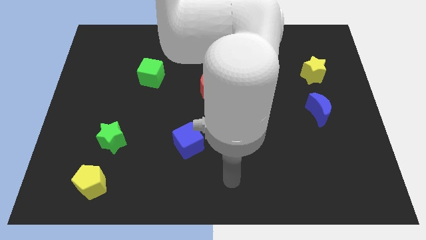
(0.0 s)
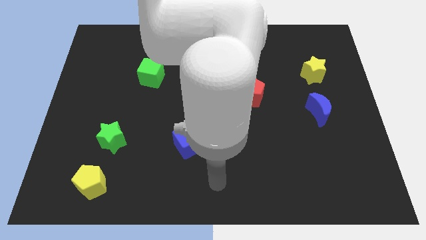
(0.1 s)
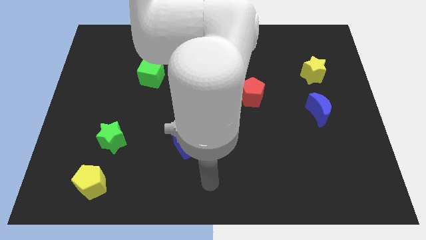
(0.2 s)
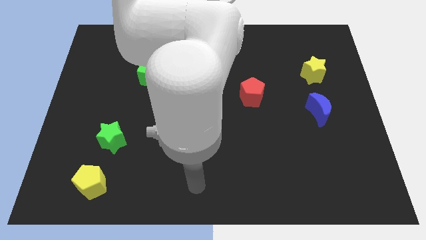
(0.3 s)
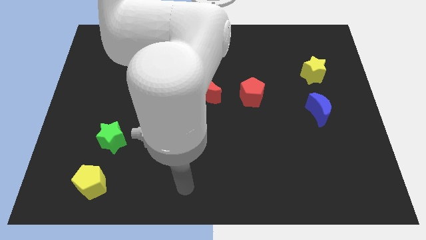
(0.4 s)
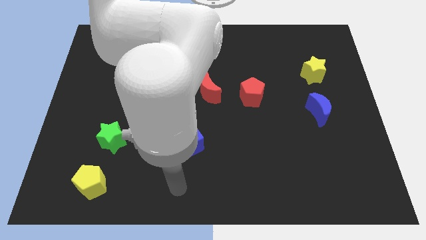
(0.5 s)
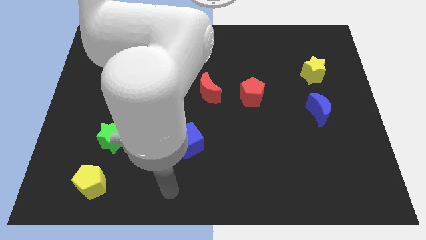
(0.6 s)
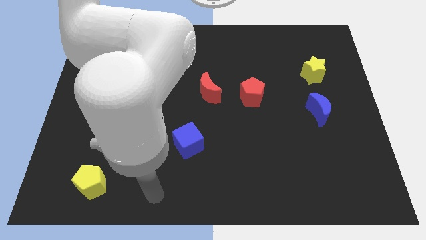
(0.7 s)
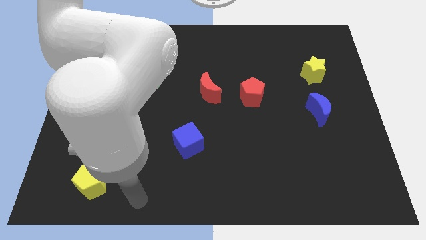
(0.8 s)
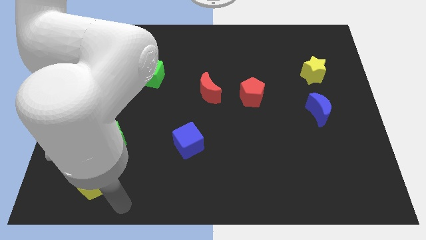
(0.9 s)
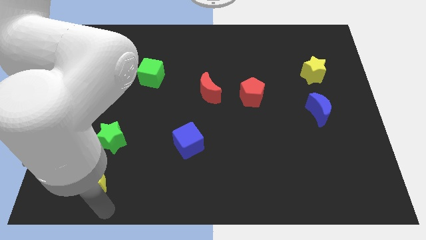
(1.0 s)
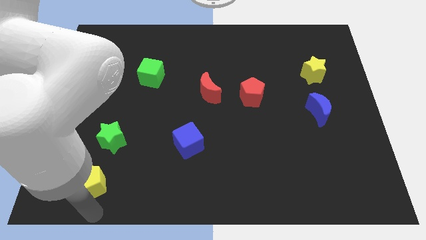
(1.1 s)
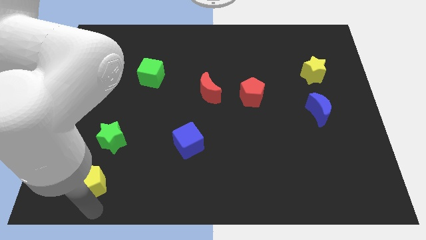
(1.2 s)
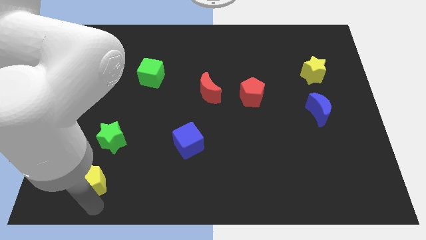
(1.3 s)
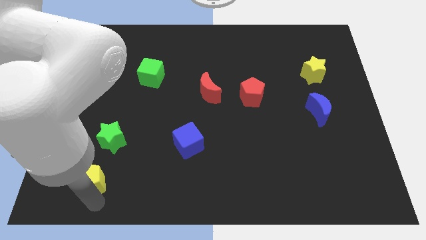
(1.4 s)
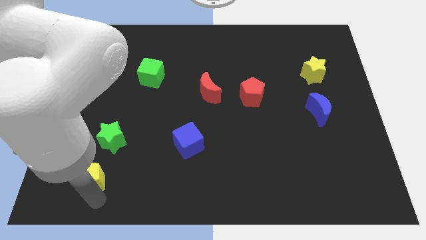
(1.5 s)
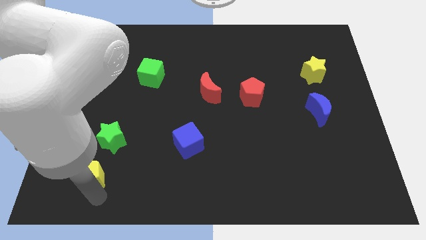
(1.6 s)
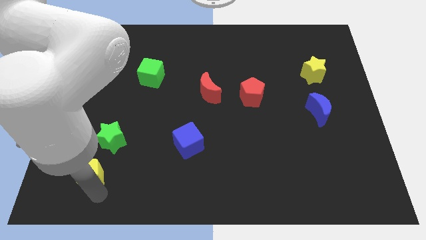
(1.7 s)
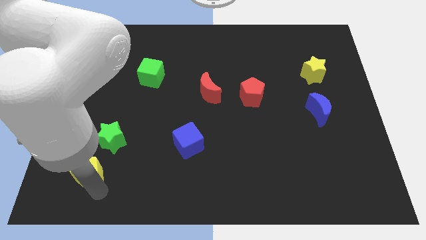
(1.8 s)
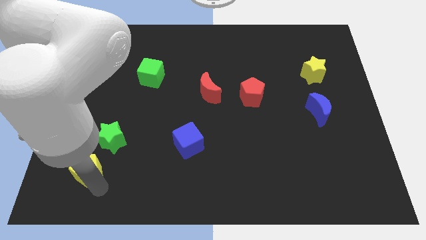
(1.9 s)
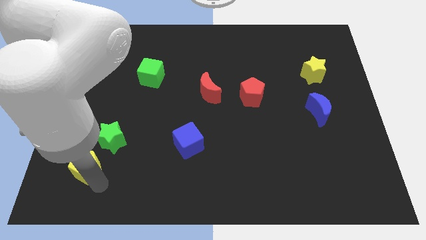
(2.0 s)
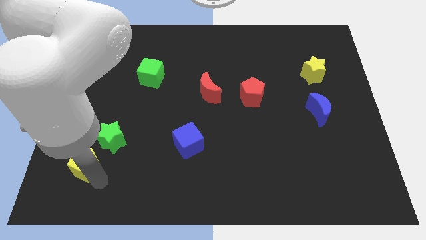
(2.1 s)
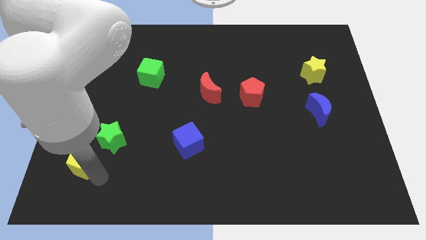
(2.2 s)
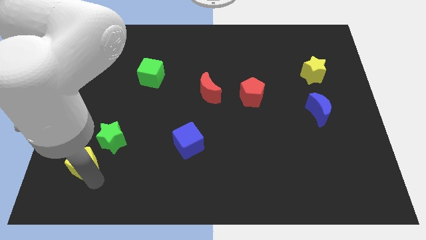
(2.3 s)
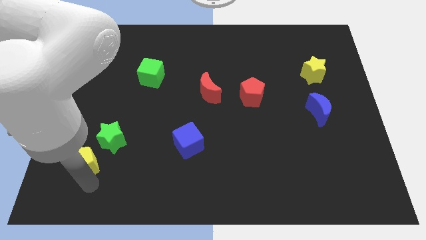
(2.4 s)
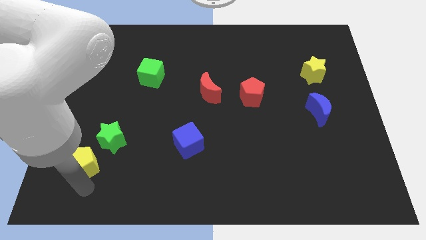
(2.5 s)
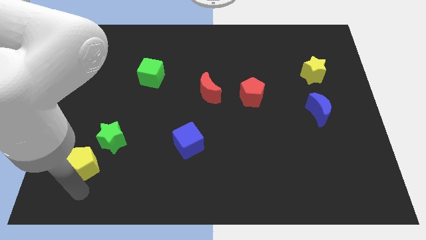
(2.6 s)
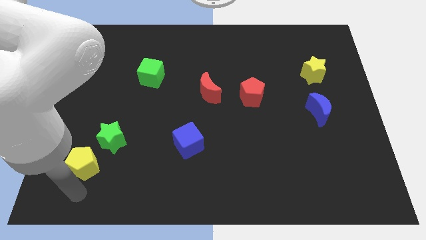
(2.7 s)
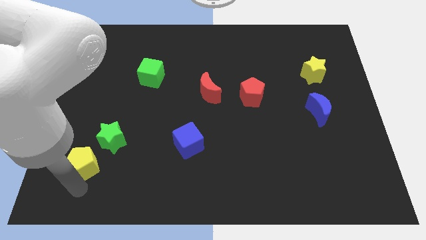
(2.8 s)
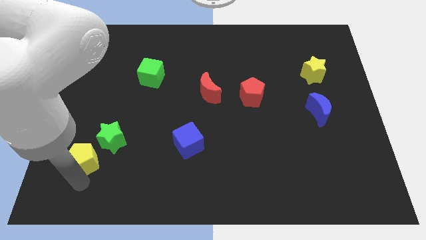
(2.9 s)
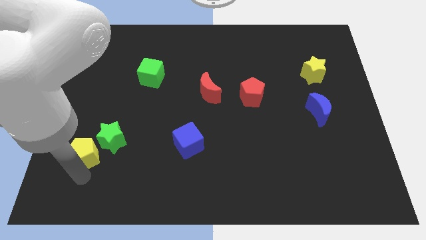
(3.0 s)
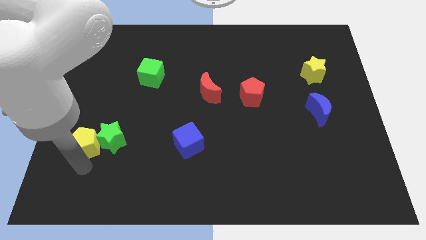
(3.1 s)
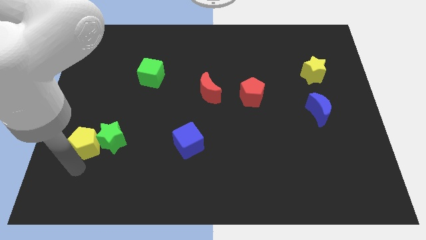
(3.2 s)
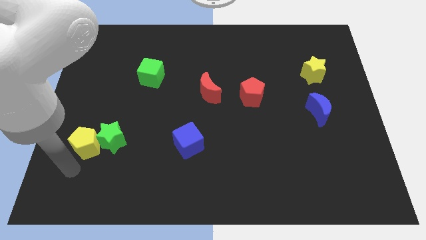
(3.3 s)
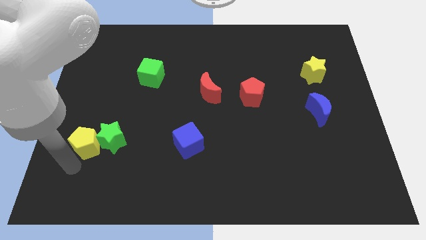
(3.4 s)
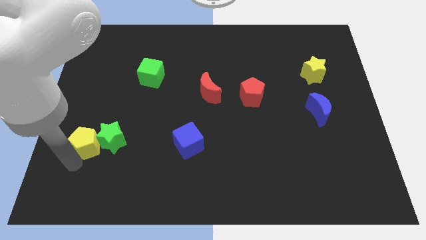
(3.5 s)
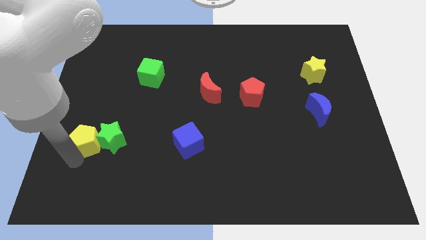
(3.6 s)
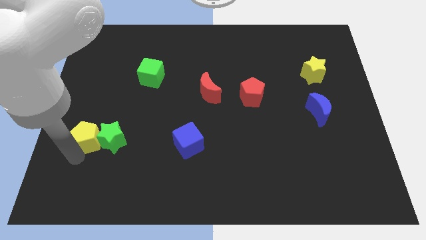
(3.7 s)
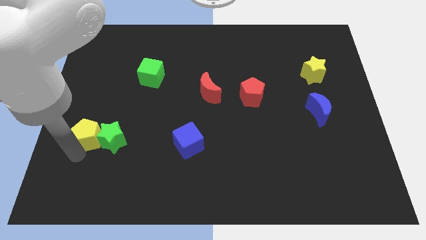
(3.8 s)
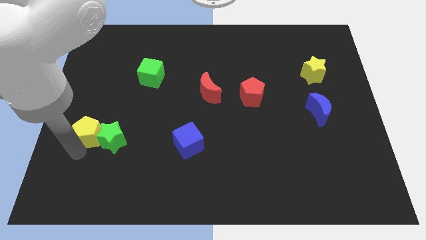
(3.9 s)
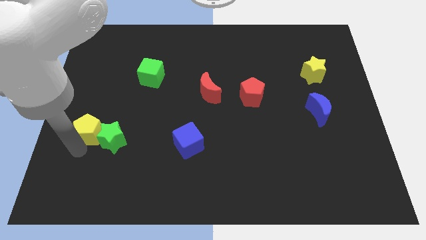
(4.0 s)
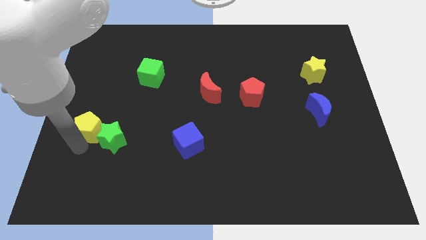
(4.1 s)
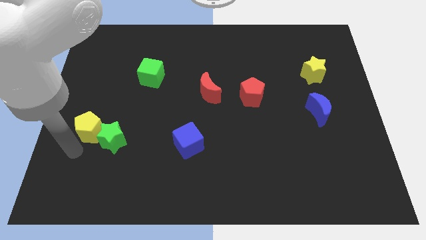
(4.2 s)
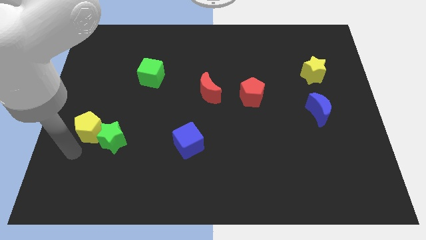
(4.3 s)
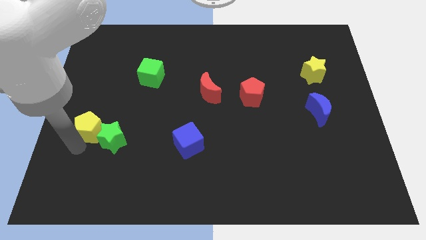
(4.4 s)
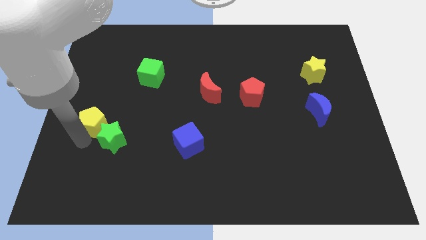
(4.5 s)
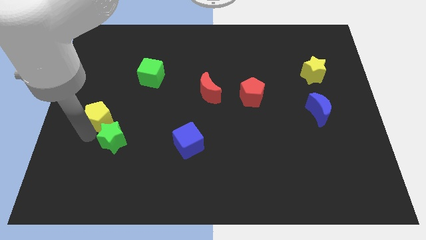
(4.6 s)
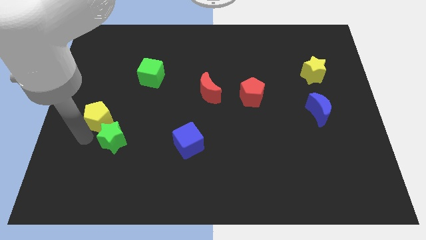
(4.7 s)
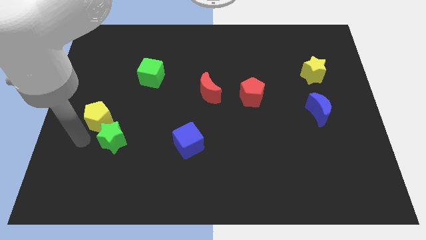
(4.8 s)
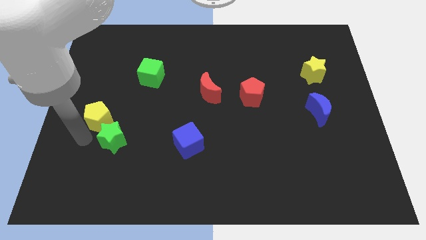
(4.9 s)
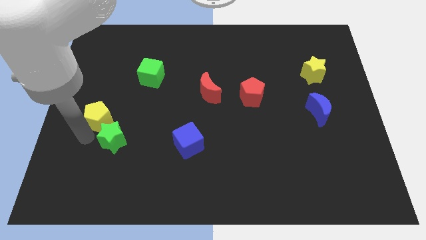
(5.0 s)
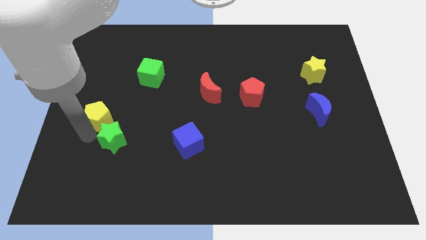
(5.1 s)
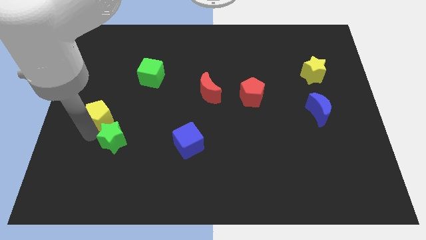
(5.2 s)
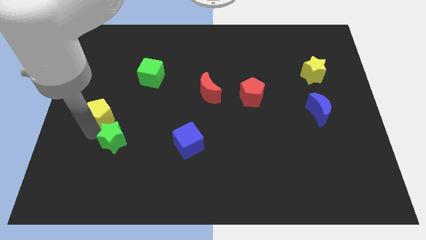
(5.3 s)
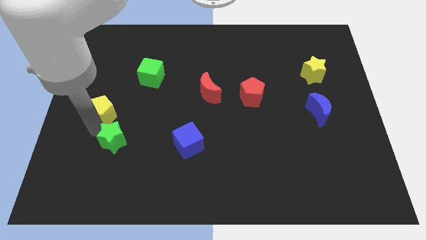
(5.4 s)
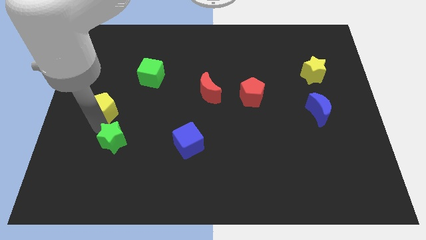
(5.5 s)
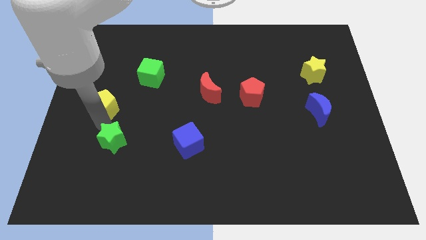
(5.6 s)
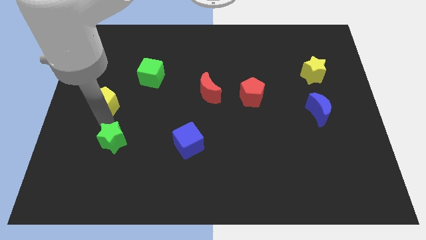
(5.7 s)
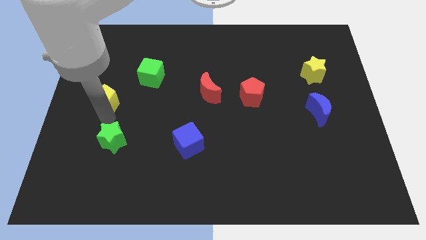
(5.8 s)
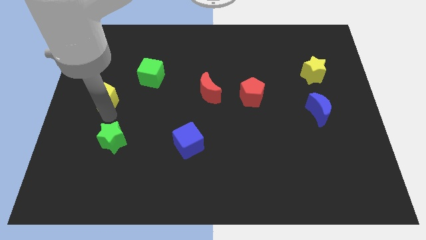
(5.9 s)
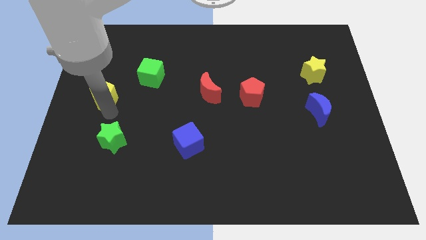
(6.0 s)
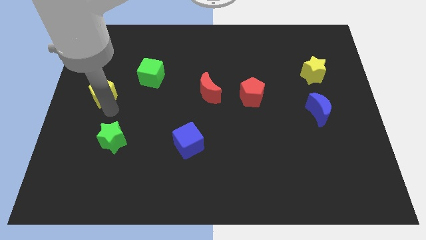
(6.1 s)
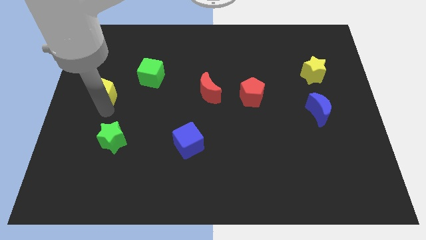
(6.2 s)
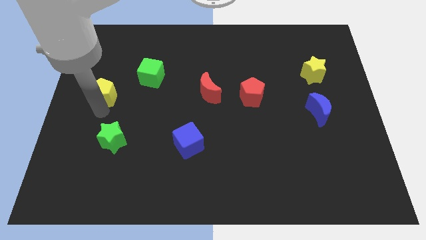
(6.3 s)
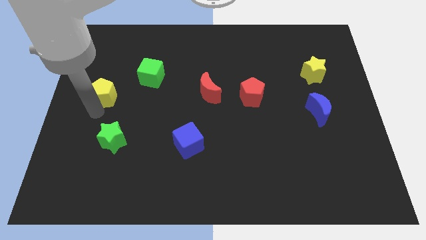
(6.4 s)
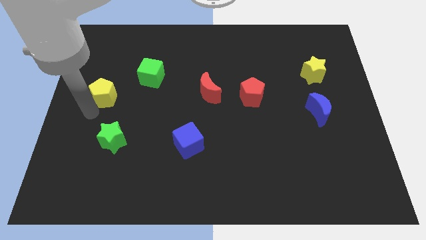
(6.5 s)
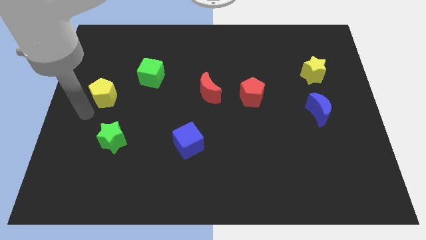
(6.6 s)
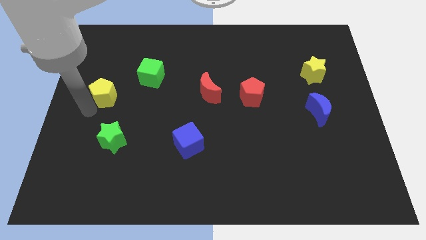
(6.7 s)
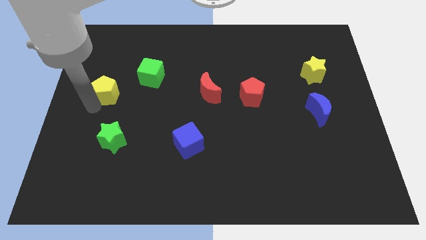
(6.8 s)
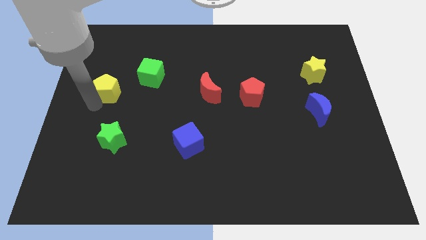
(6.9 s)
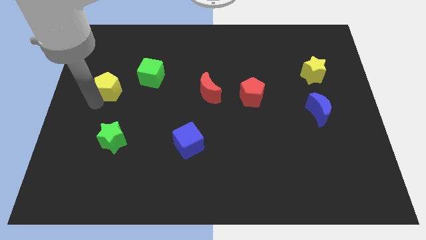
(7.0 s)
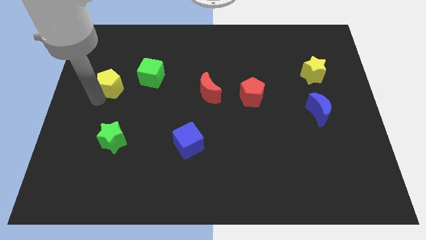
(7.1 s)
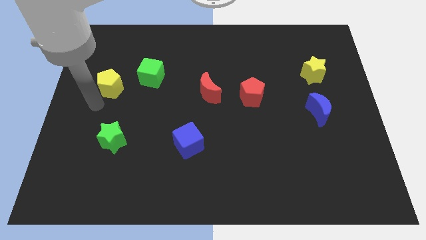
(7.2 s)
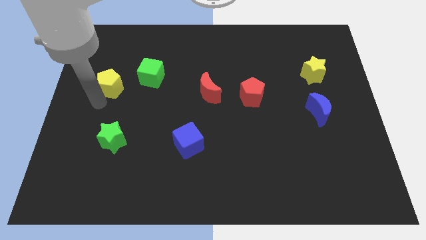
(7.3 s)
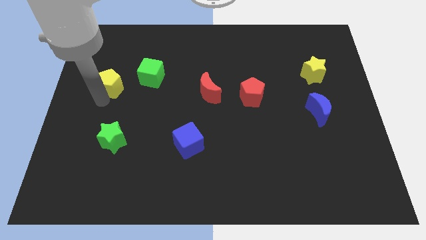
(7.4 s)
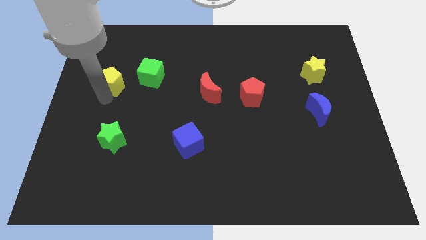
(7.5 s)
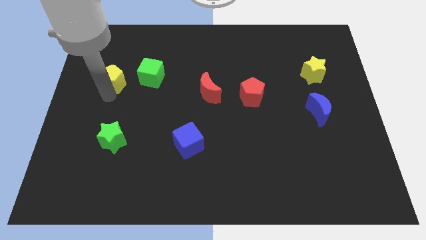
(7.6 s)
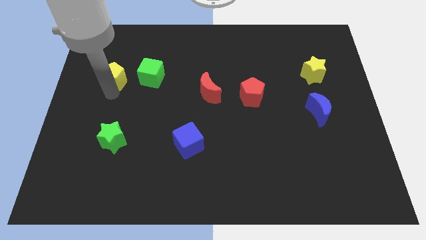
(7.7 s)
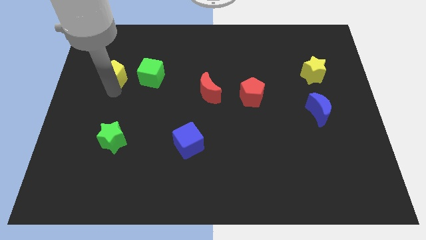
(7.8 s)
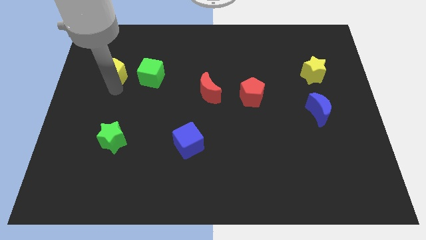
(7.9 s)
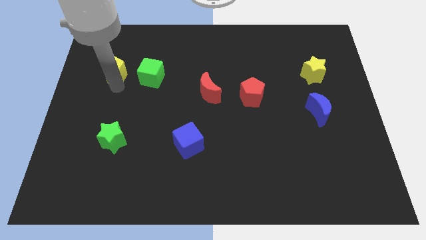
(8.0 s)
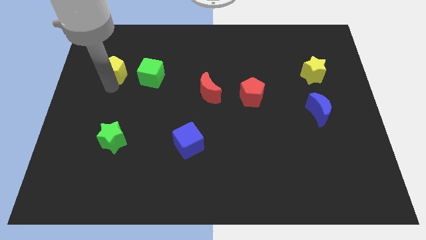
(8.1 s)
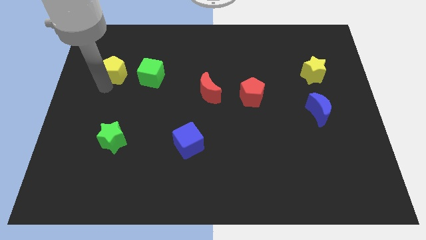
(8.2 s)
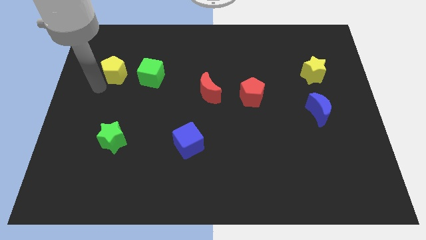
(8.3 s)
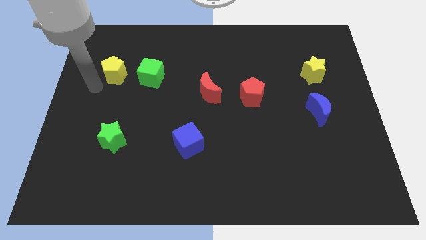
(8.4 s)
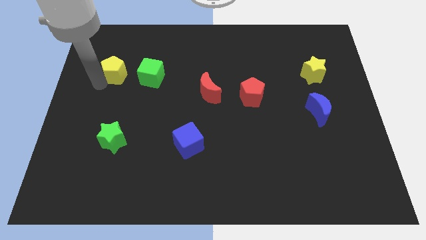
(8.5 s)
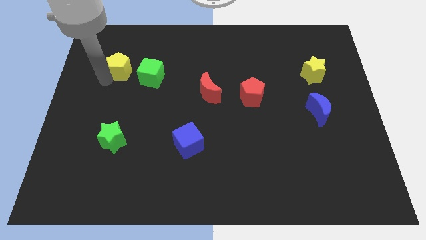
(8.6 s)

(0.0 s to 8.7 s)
put the yellow pentagon to the top left side of the green cube
